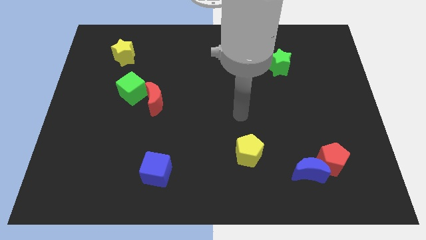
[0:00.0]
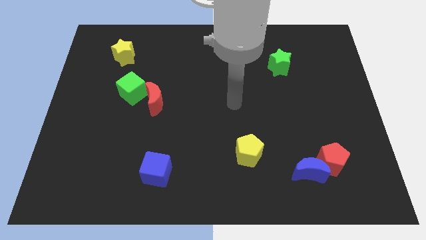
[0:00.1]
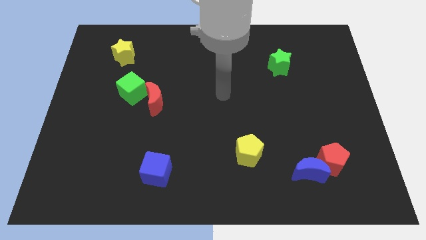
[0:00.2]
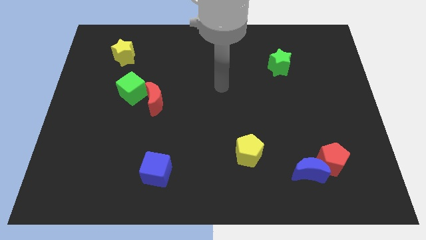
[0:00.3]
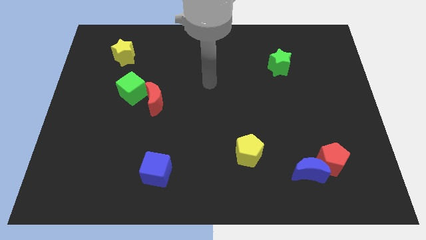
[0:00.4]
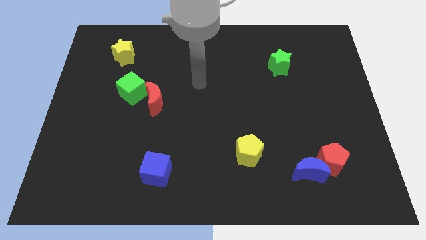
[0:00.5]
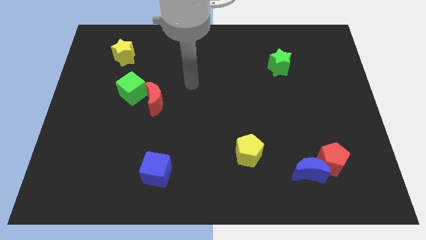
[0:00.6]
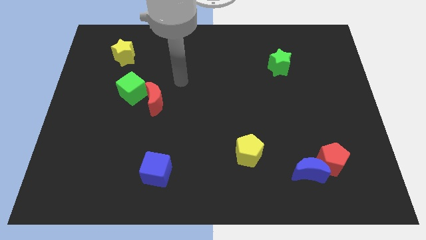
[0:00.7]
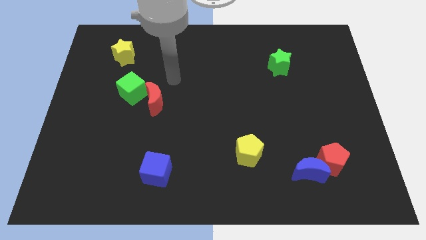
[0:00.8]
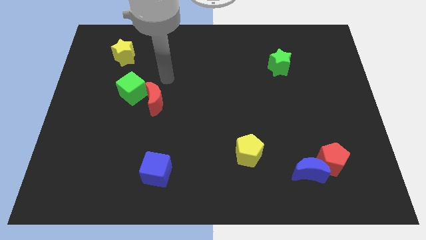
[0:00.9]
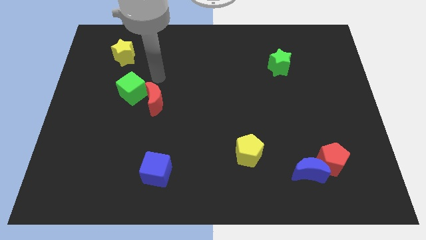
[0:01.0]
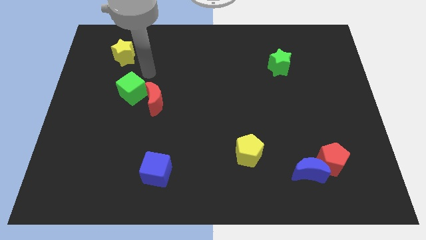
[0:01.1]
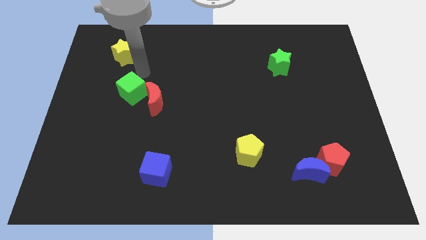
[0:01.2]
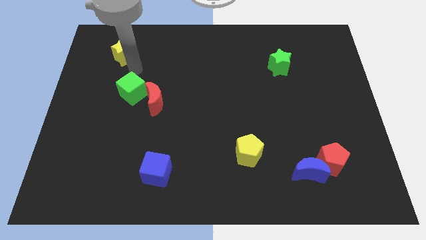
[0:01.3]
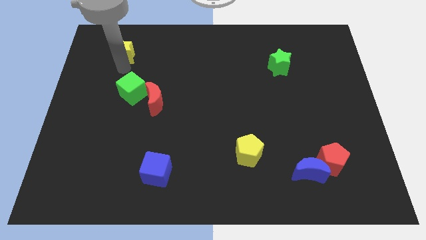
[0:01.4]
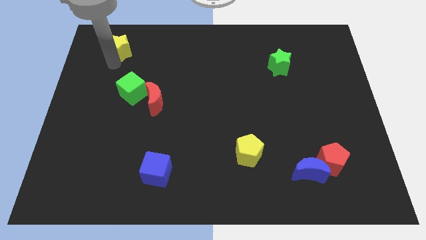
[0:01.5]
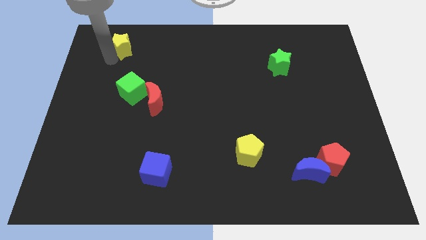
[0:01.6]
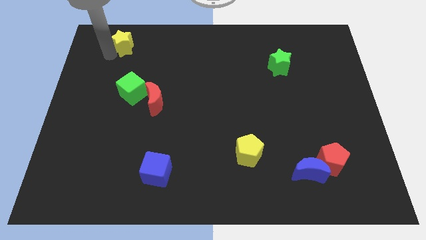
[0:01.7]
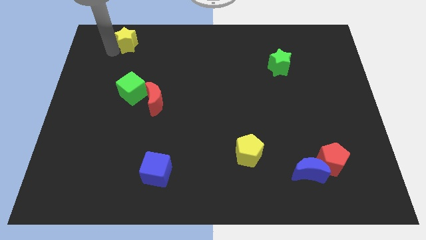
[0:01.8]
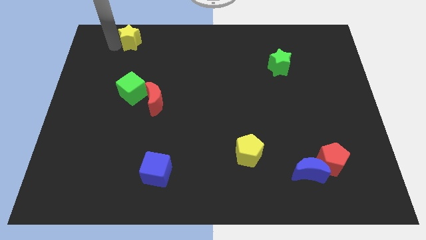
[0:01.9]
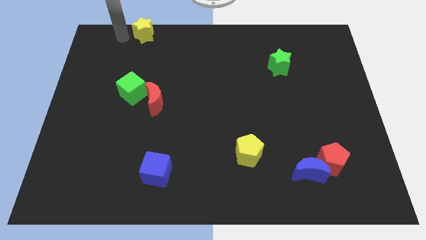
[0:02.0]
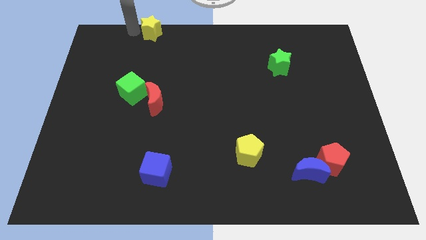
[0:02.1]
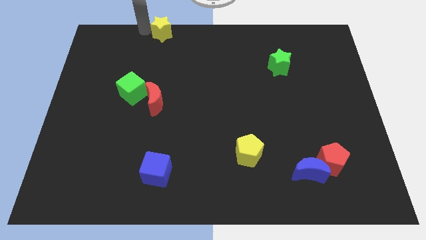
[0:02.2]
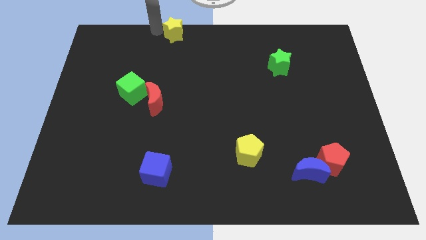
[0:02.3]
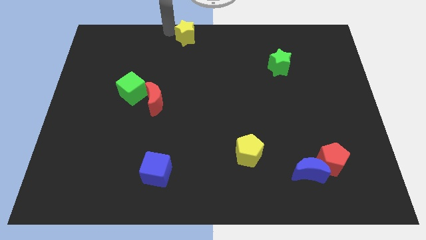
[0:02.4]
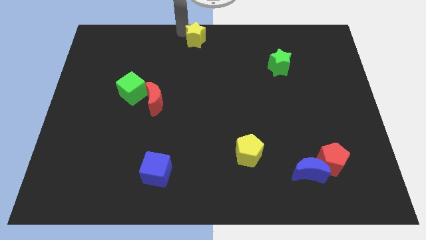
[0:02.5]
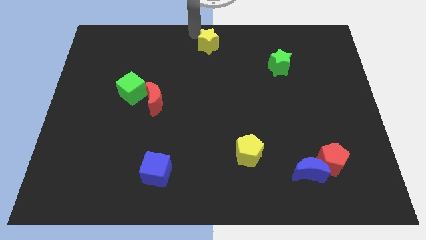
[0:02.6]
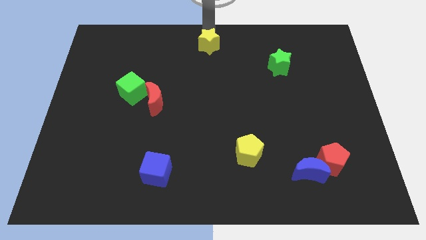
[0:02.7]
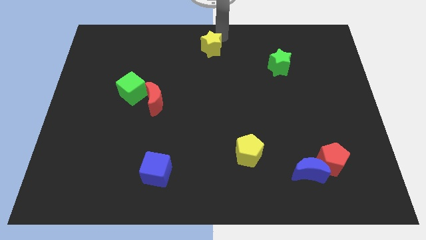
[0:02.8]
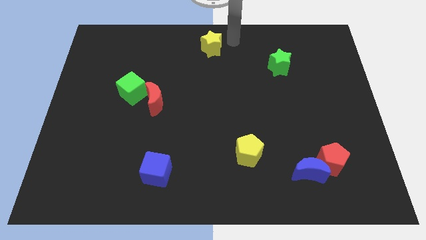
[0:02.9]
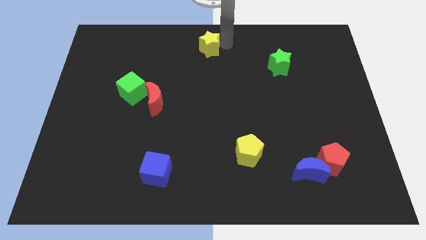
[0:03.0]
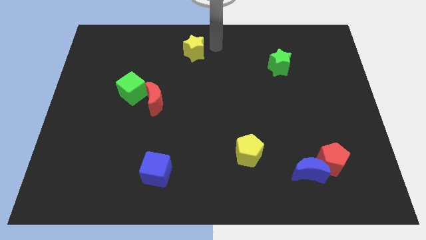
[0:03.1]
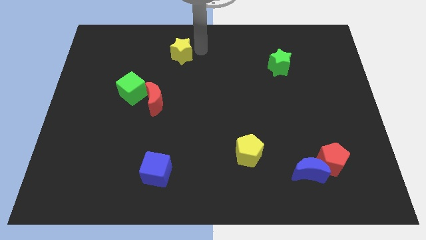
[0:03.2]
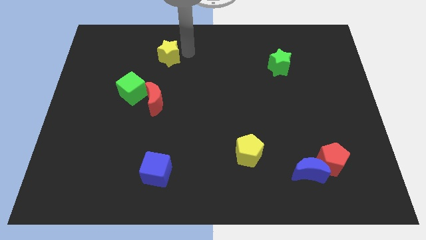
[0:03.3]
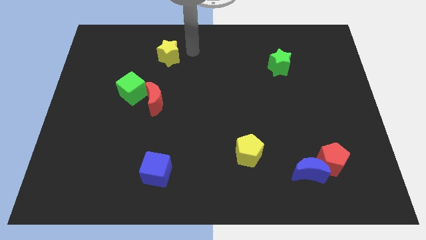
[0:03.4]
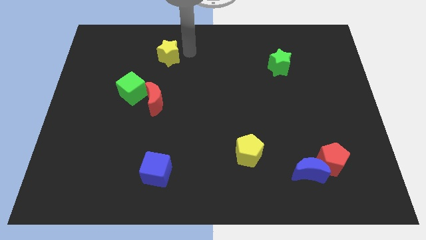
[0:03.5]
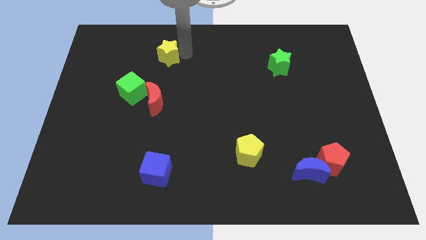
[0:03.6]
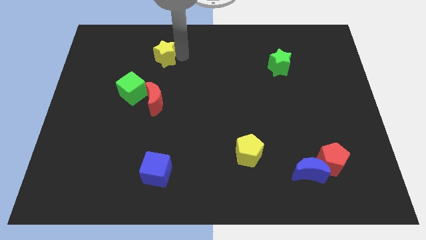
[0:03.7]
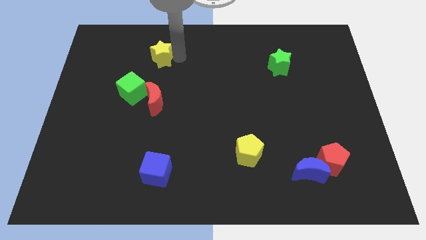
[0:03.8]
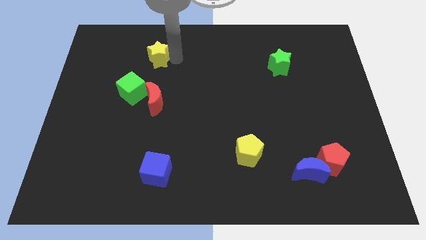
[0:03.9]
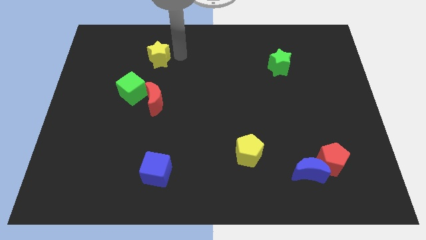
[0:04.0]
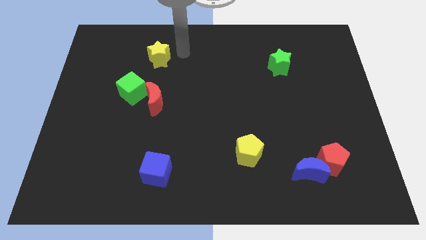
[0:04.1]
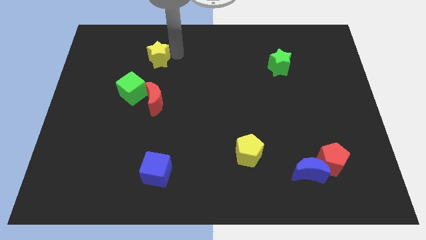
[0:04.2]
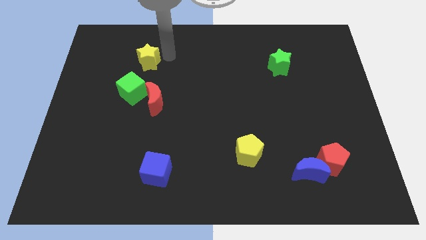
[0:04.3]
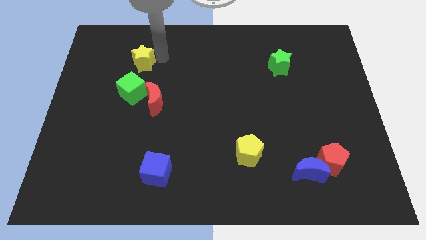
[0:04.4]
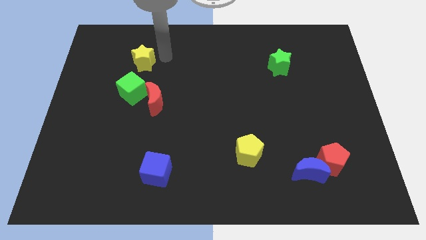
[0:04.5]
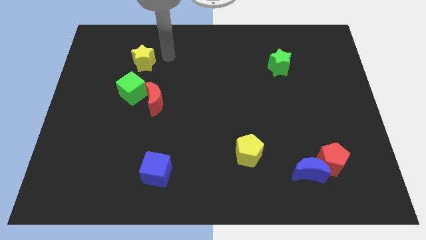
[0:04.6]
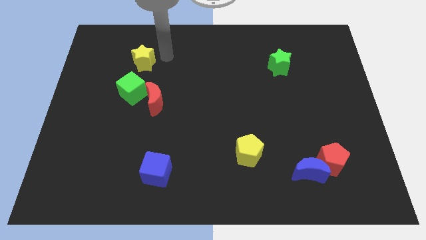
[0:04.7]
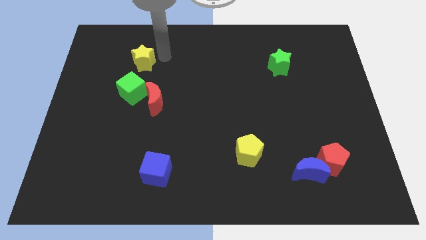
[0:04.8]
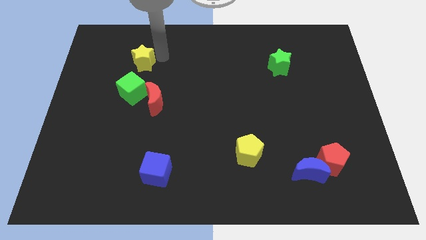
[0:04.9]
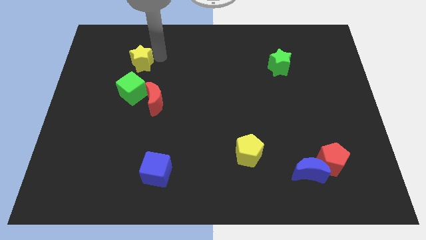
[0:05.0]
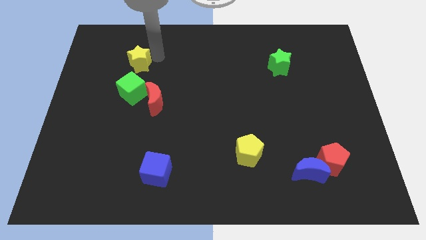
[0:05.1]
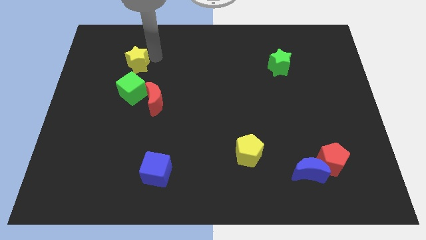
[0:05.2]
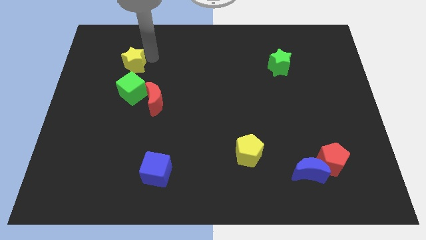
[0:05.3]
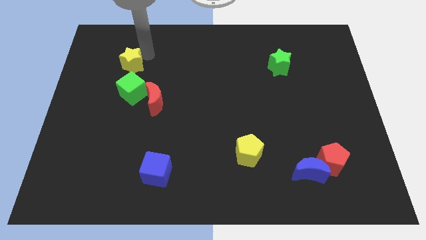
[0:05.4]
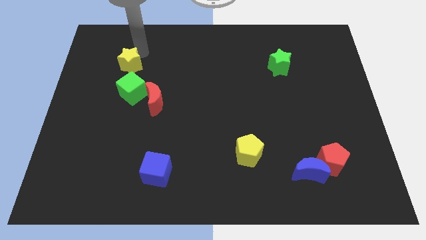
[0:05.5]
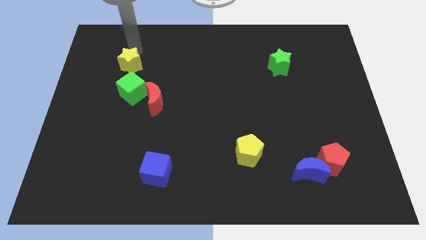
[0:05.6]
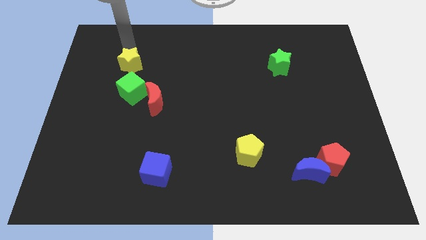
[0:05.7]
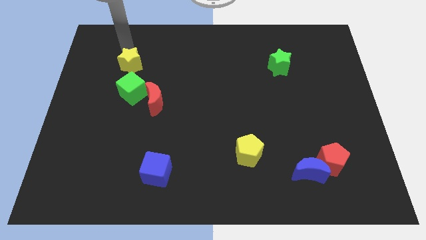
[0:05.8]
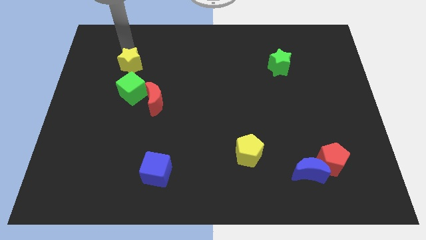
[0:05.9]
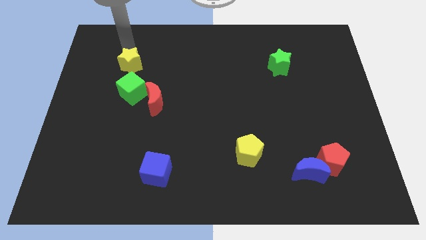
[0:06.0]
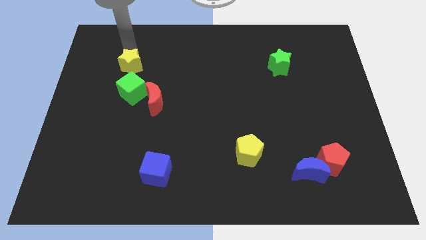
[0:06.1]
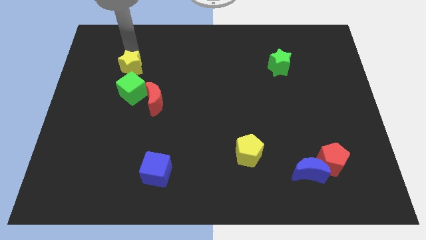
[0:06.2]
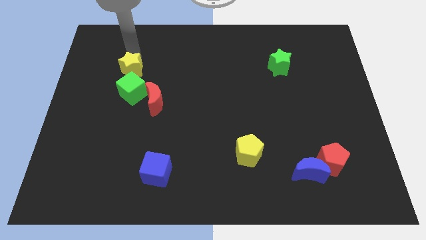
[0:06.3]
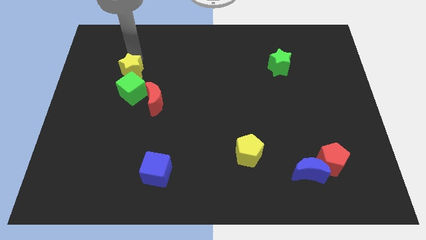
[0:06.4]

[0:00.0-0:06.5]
put the yellow star to the top left of the red moon

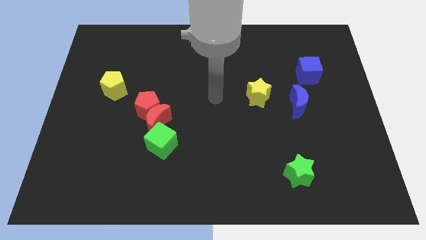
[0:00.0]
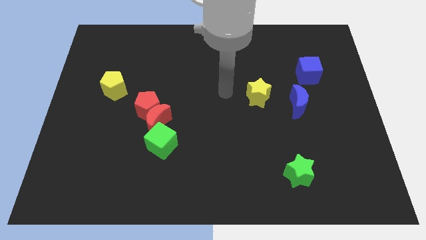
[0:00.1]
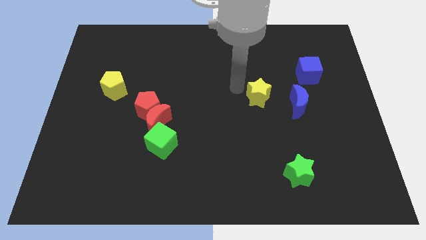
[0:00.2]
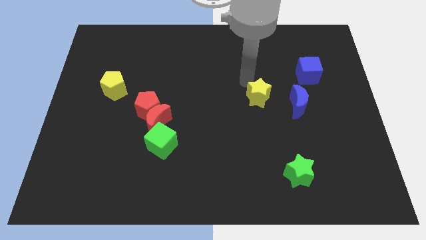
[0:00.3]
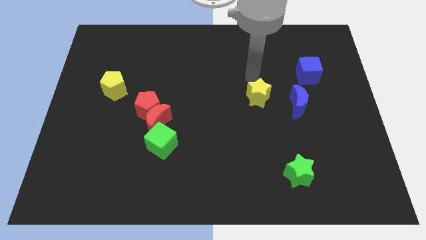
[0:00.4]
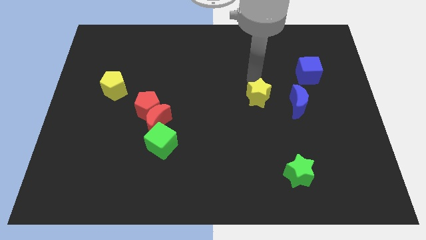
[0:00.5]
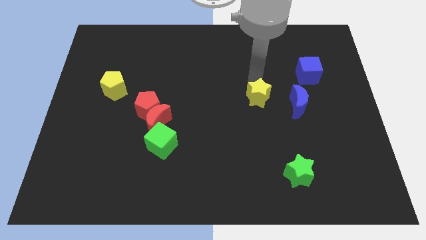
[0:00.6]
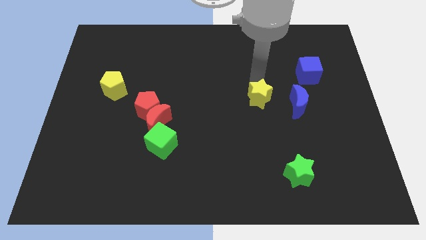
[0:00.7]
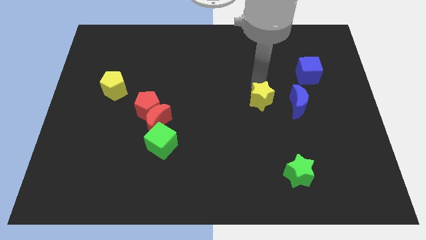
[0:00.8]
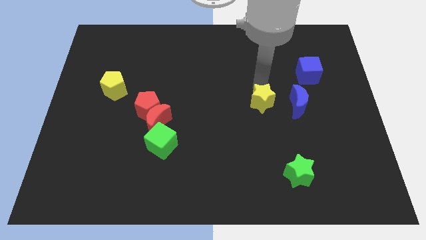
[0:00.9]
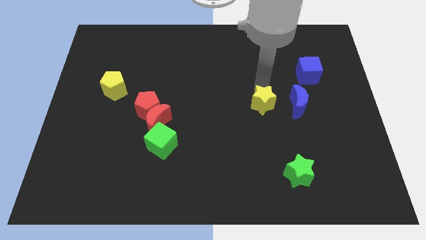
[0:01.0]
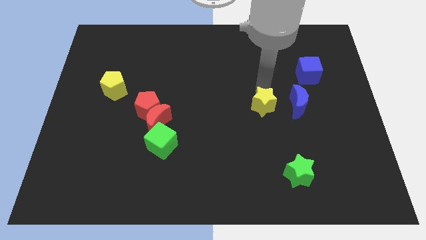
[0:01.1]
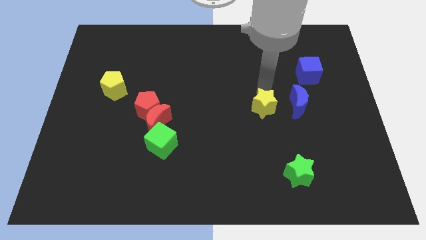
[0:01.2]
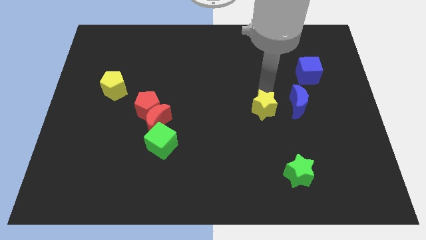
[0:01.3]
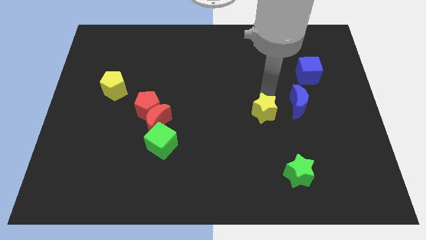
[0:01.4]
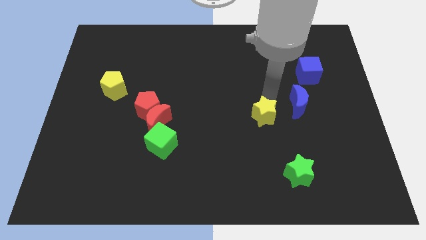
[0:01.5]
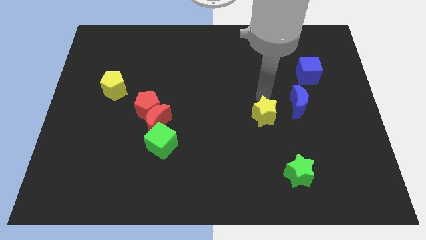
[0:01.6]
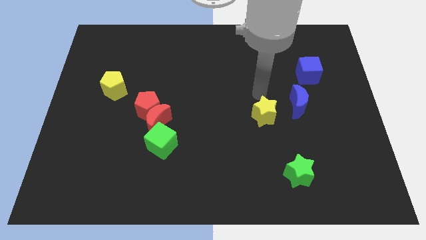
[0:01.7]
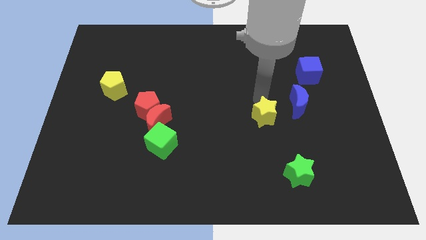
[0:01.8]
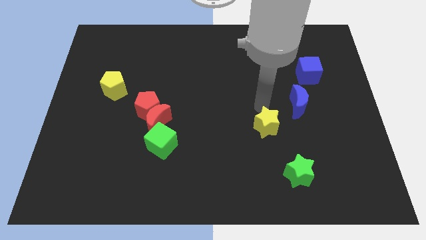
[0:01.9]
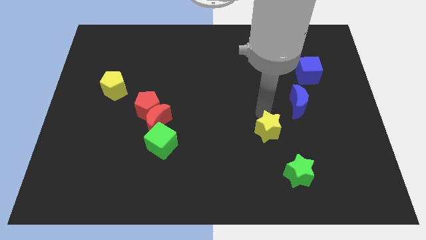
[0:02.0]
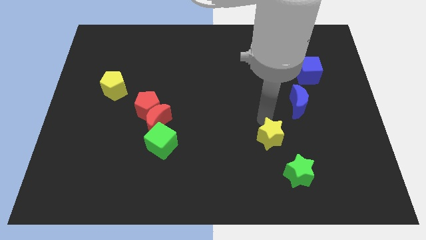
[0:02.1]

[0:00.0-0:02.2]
put the yellow star diagonally up and to the left of the green star
